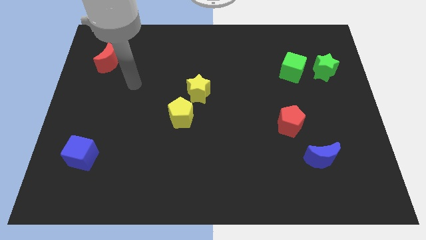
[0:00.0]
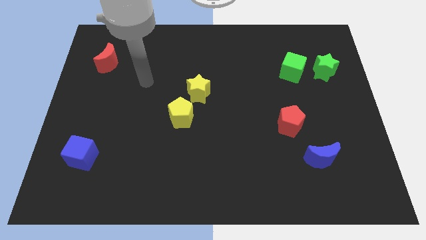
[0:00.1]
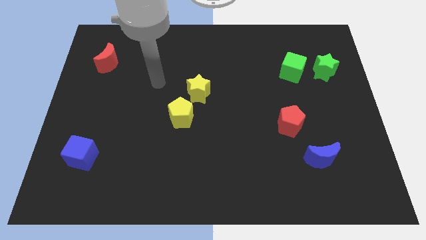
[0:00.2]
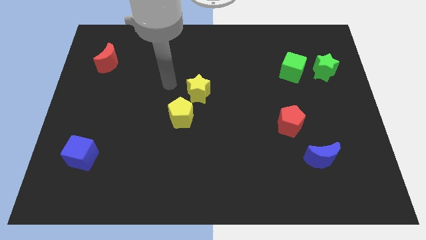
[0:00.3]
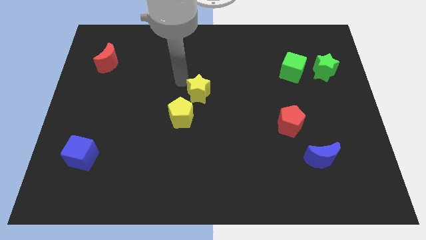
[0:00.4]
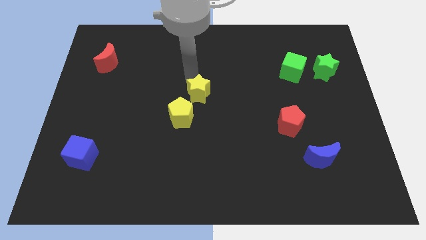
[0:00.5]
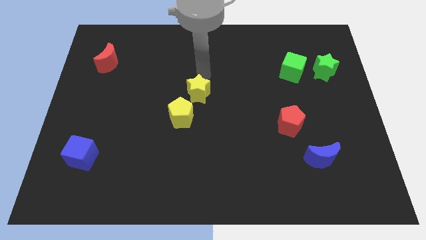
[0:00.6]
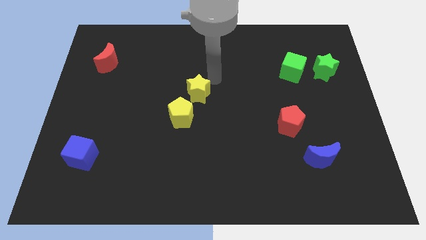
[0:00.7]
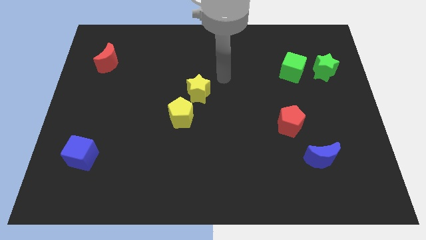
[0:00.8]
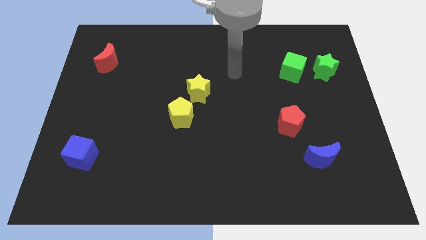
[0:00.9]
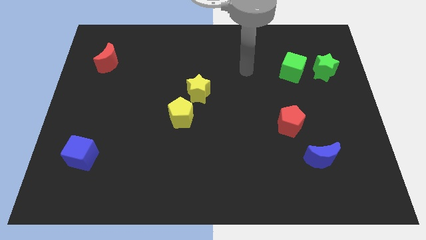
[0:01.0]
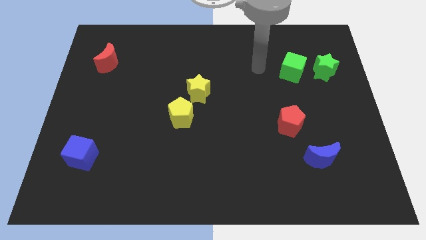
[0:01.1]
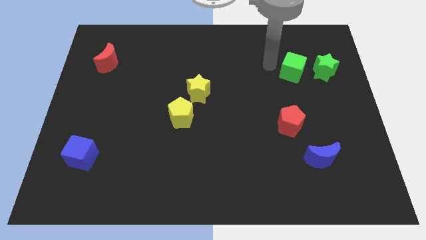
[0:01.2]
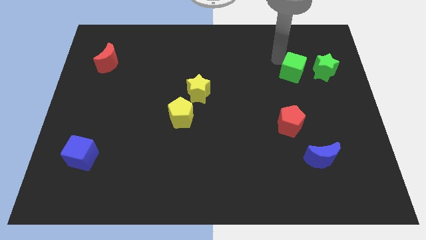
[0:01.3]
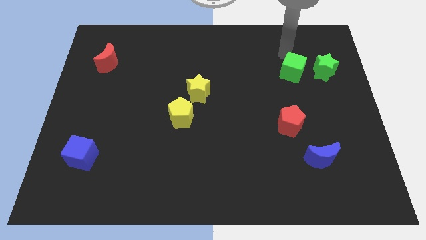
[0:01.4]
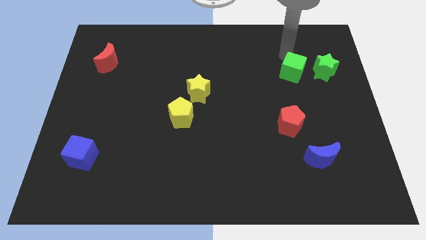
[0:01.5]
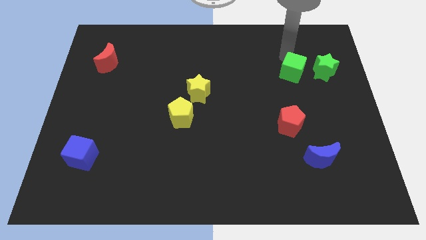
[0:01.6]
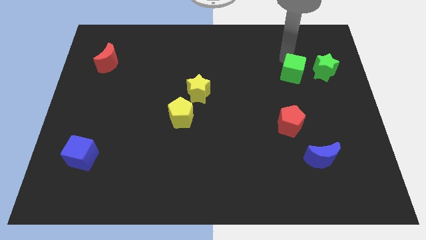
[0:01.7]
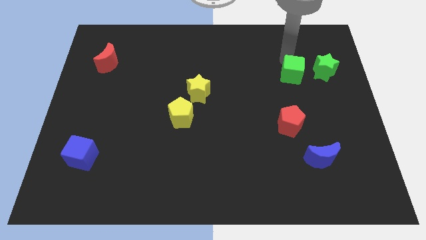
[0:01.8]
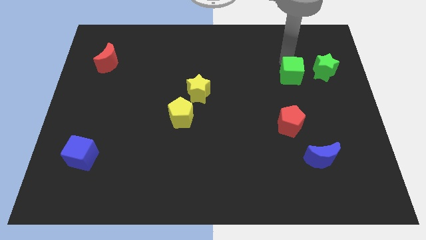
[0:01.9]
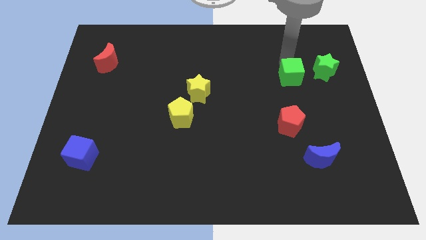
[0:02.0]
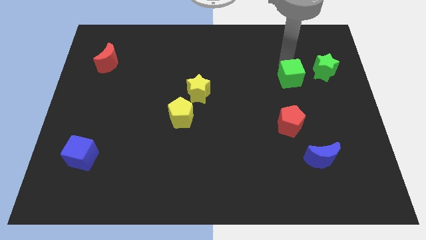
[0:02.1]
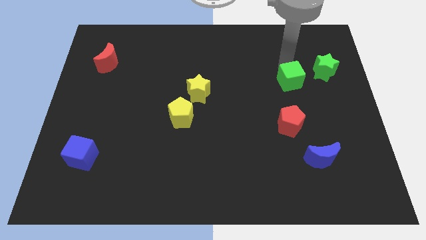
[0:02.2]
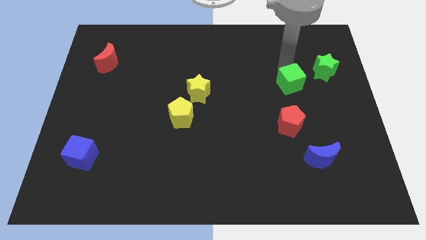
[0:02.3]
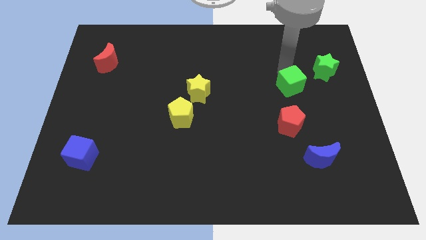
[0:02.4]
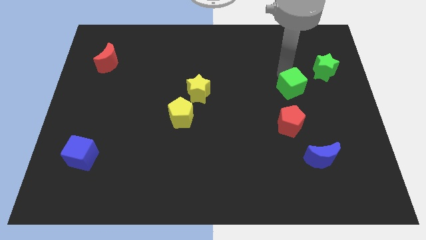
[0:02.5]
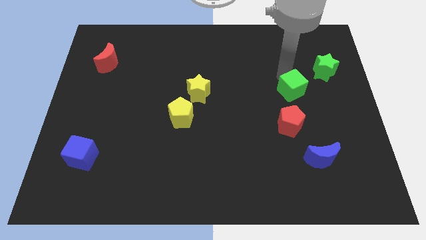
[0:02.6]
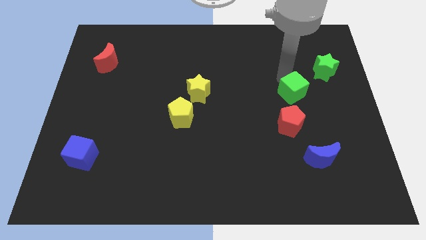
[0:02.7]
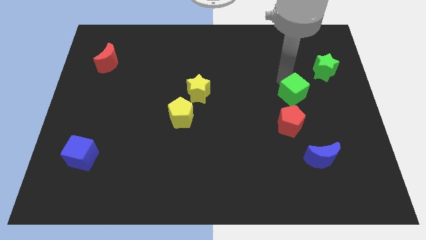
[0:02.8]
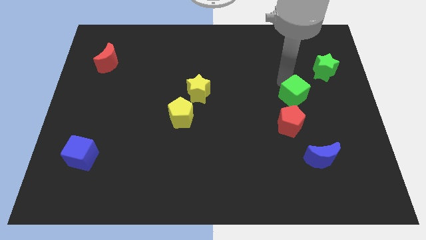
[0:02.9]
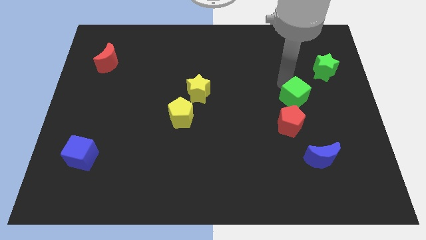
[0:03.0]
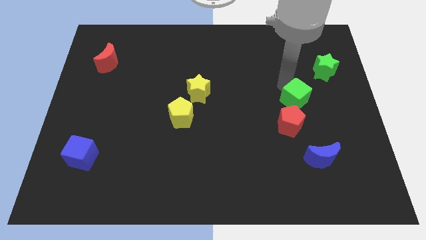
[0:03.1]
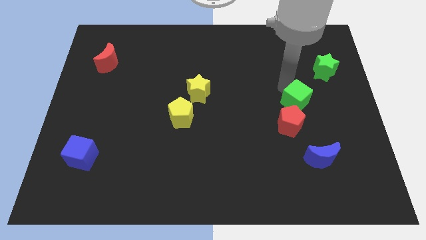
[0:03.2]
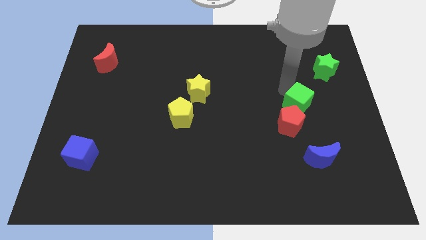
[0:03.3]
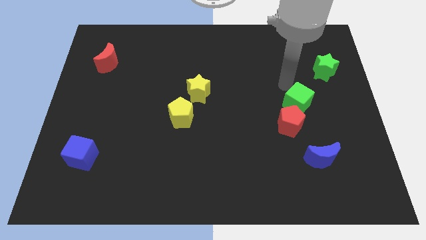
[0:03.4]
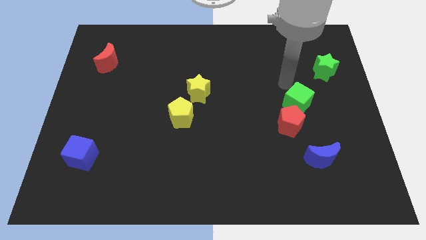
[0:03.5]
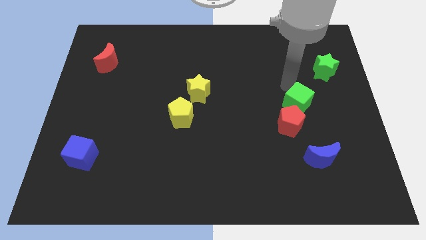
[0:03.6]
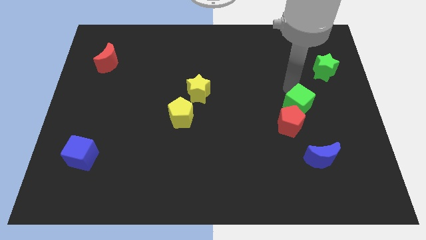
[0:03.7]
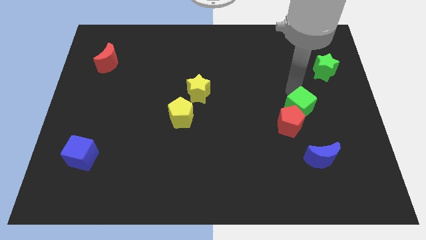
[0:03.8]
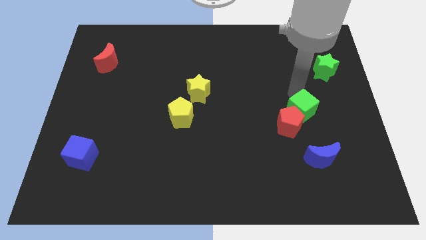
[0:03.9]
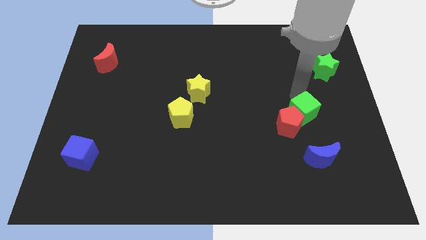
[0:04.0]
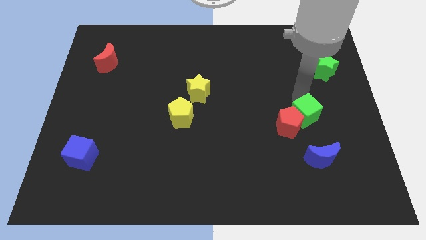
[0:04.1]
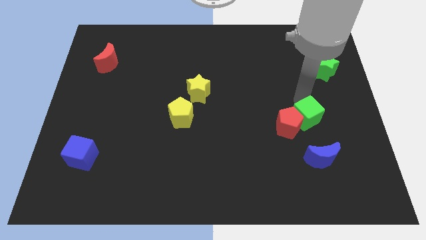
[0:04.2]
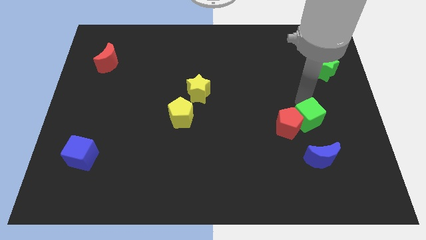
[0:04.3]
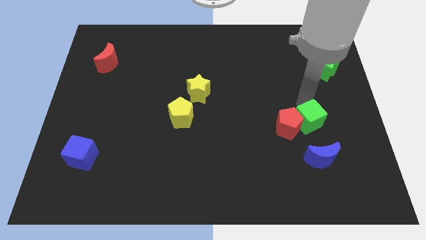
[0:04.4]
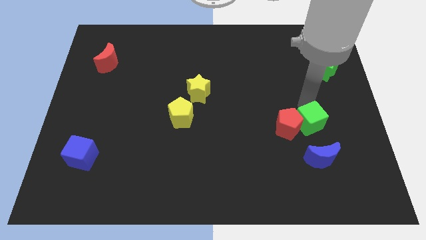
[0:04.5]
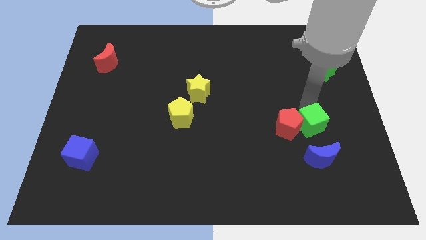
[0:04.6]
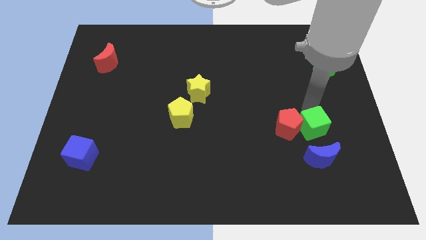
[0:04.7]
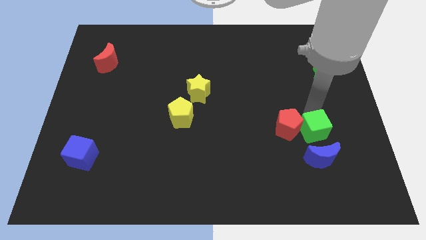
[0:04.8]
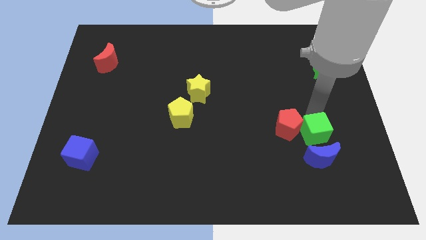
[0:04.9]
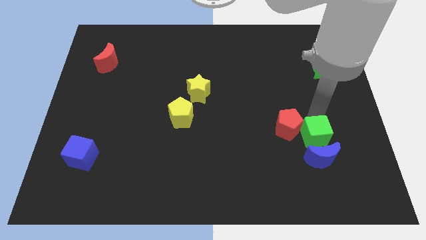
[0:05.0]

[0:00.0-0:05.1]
push the green cube next to the blue moon

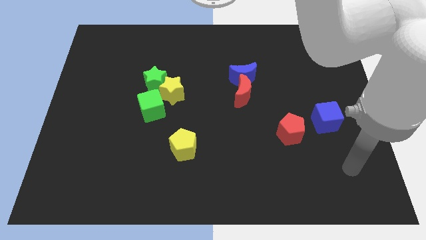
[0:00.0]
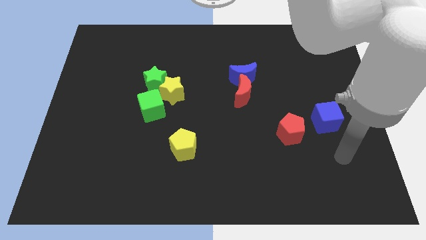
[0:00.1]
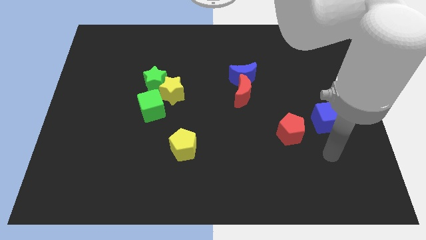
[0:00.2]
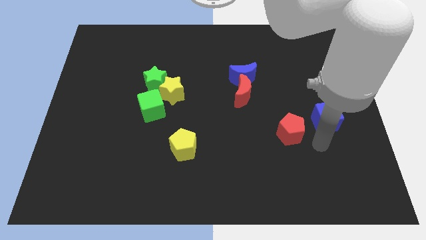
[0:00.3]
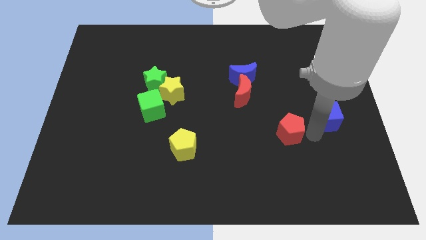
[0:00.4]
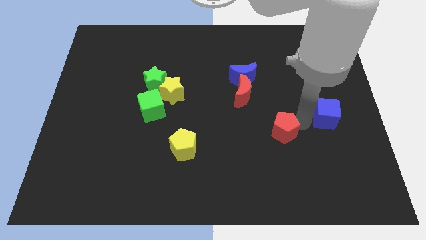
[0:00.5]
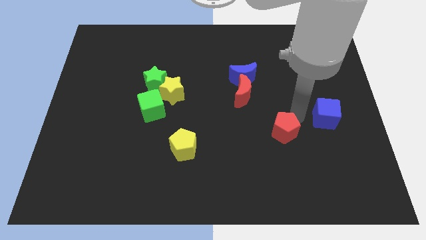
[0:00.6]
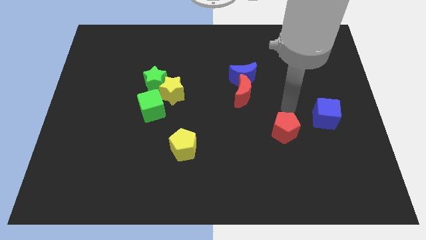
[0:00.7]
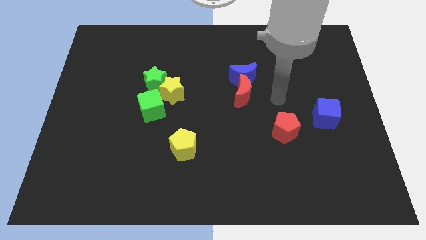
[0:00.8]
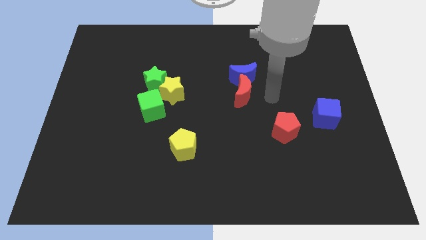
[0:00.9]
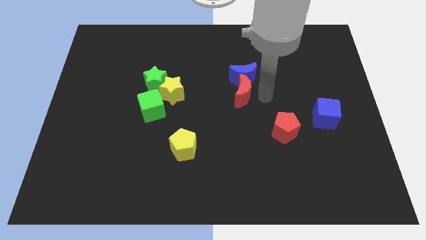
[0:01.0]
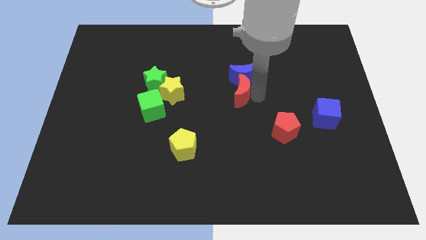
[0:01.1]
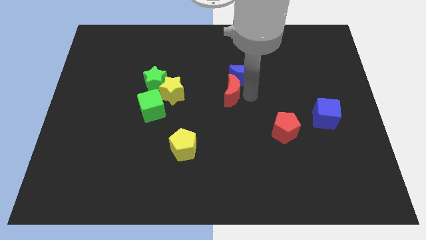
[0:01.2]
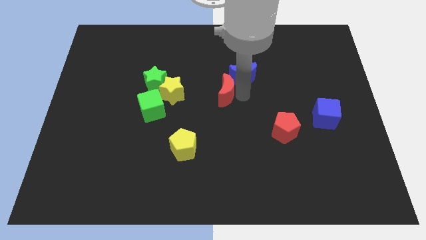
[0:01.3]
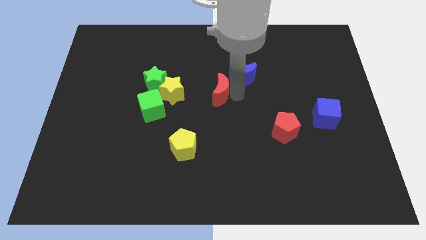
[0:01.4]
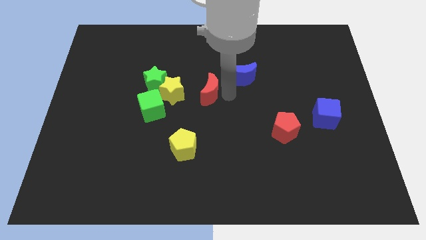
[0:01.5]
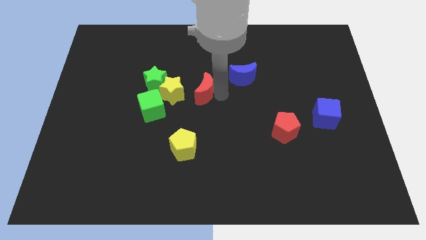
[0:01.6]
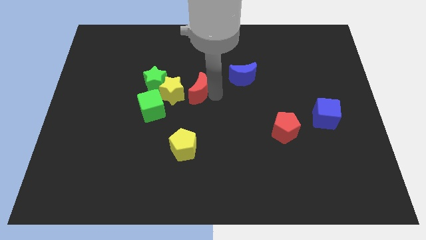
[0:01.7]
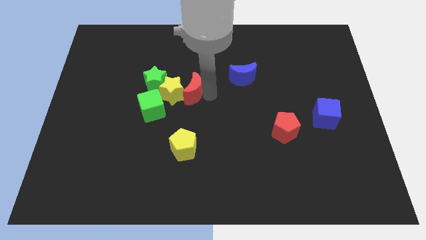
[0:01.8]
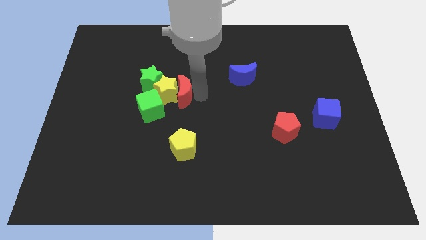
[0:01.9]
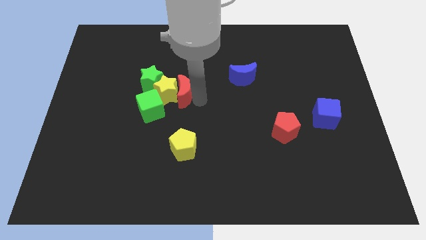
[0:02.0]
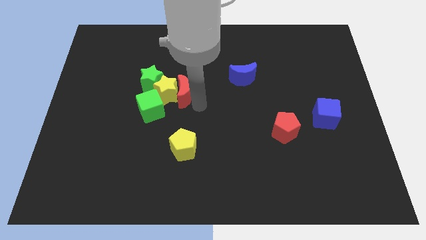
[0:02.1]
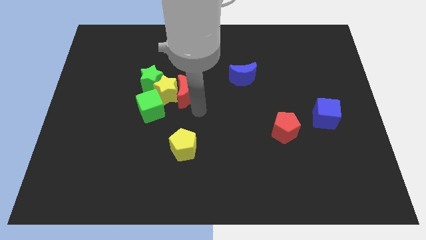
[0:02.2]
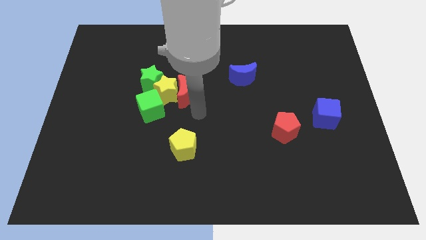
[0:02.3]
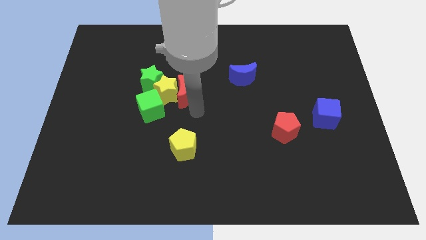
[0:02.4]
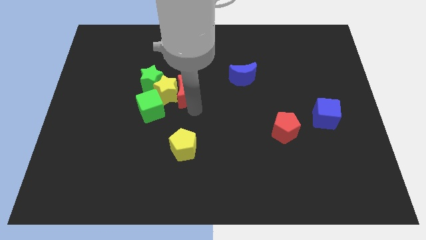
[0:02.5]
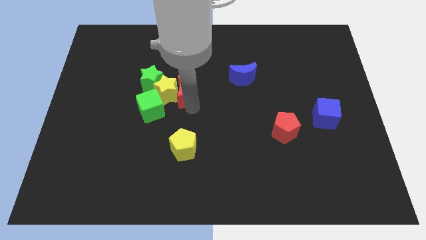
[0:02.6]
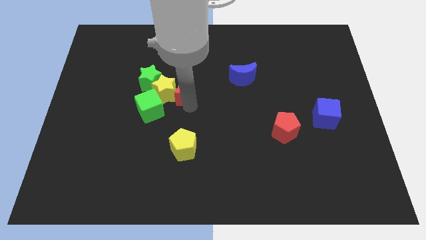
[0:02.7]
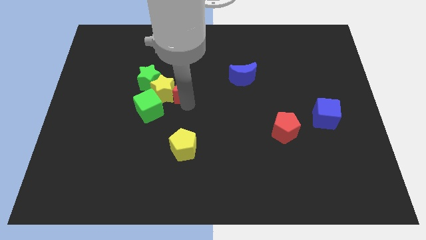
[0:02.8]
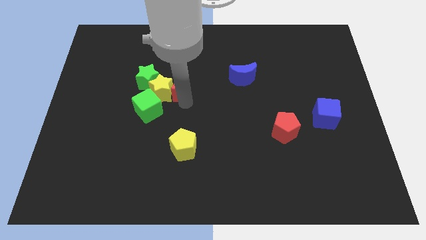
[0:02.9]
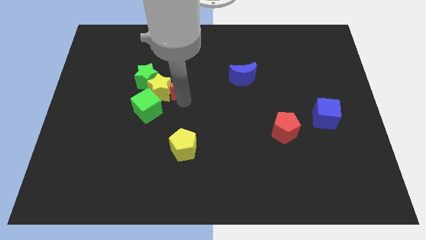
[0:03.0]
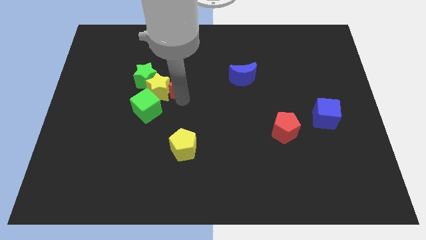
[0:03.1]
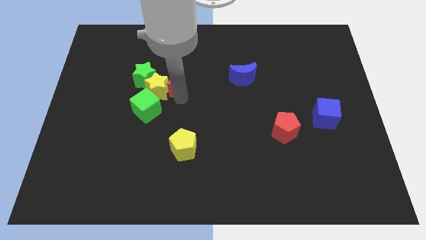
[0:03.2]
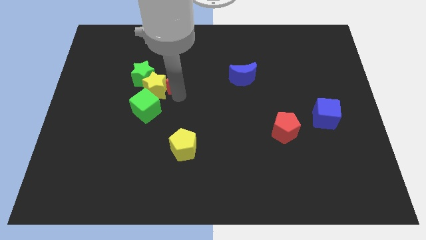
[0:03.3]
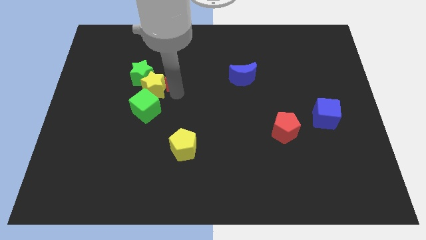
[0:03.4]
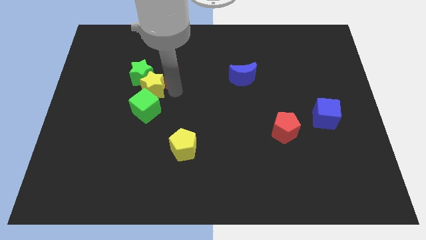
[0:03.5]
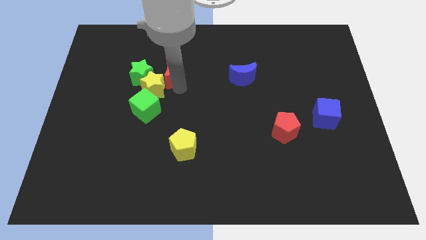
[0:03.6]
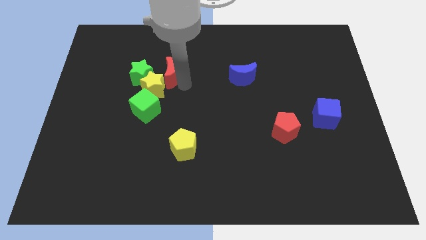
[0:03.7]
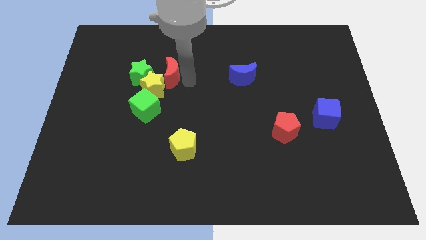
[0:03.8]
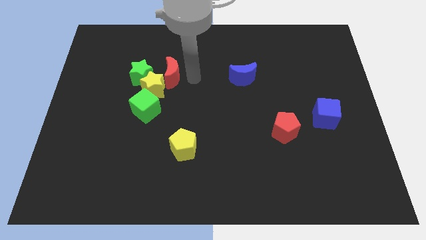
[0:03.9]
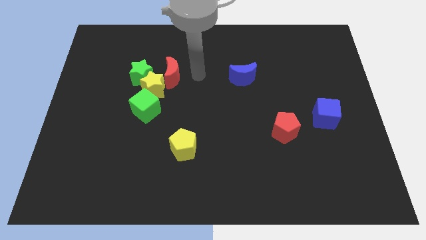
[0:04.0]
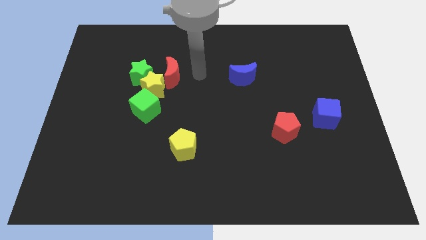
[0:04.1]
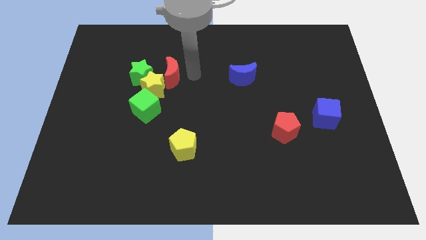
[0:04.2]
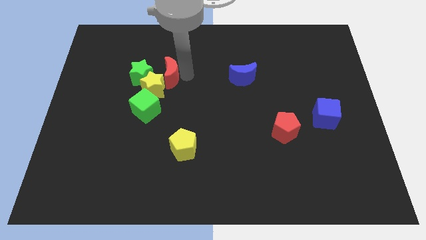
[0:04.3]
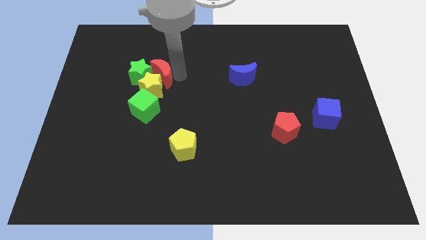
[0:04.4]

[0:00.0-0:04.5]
push the red moon towards the green star
